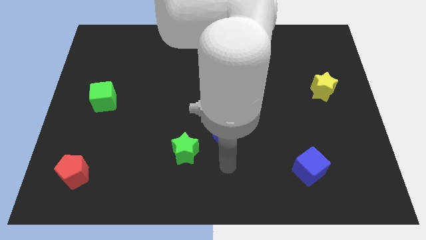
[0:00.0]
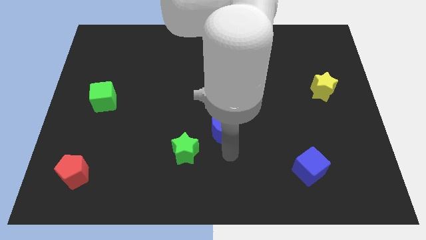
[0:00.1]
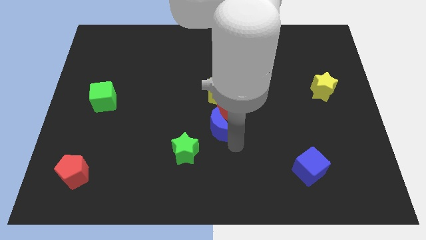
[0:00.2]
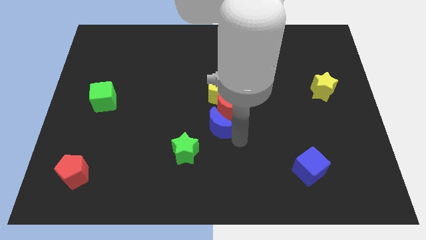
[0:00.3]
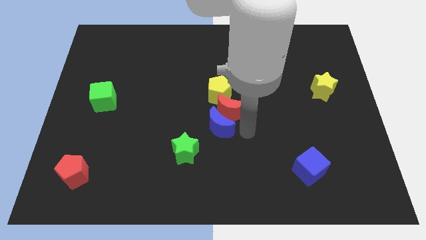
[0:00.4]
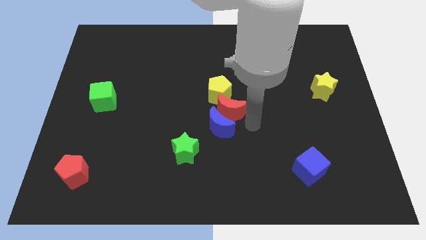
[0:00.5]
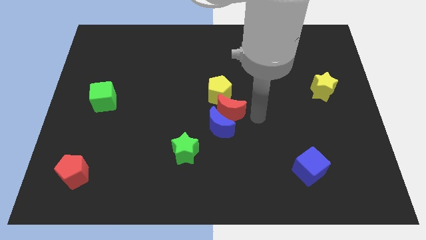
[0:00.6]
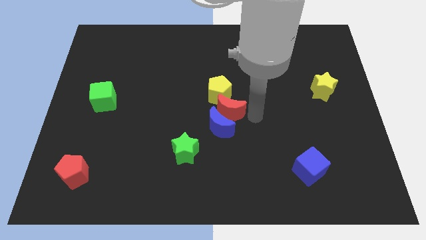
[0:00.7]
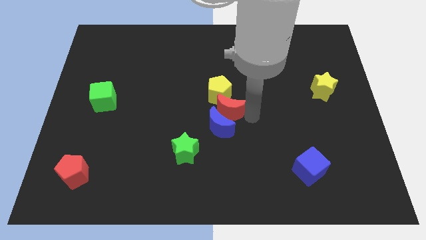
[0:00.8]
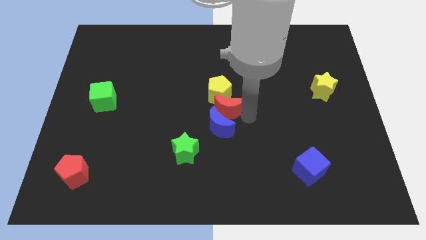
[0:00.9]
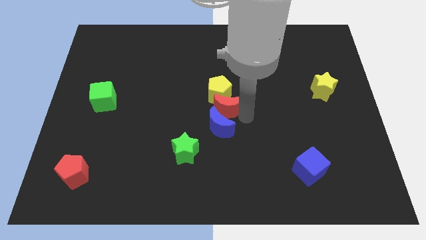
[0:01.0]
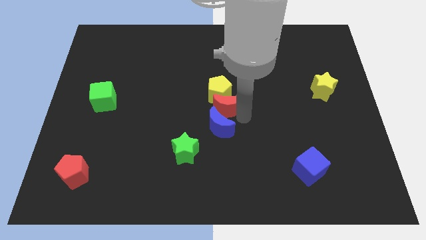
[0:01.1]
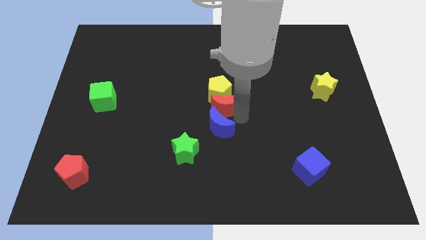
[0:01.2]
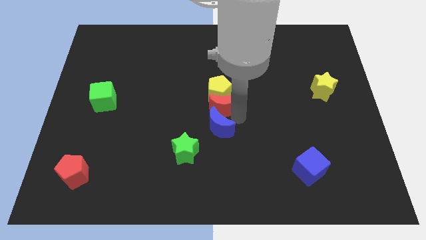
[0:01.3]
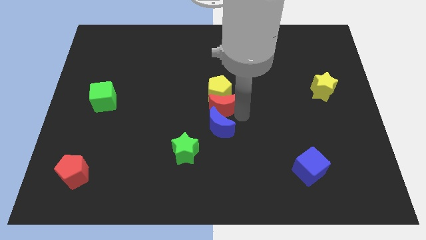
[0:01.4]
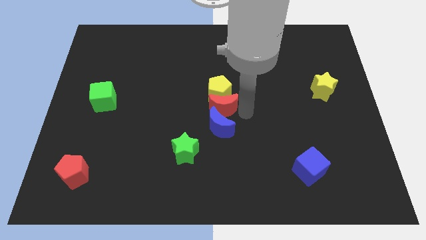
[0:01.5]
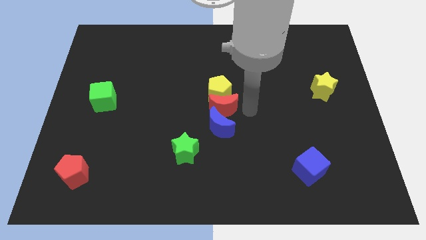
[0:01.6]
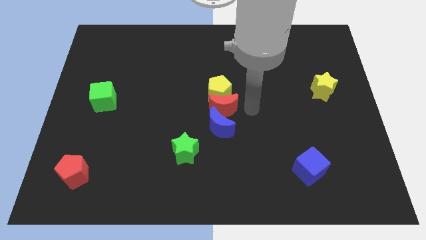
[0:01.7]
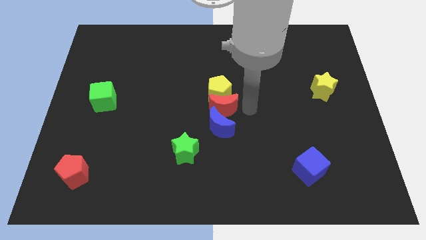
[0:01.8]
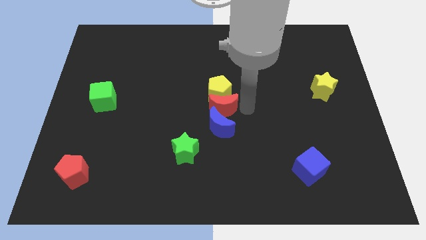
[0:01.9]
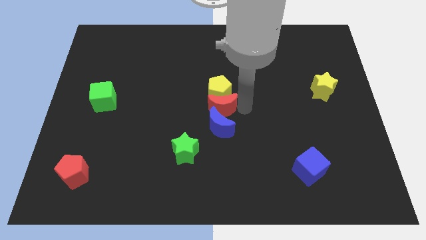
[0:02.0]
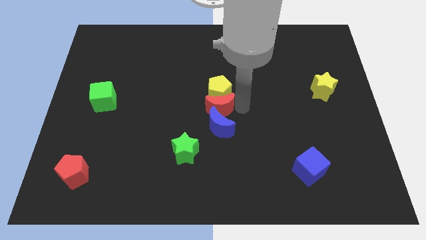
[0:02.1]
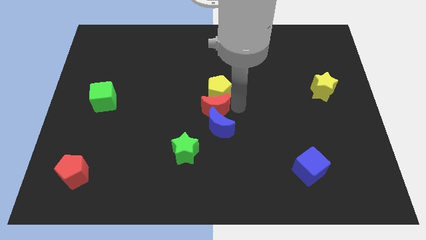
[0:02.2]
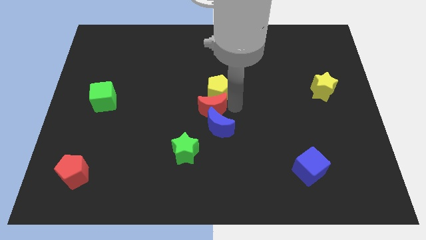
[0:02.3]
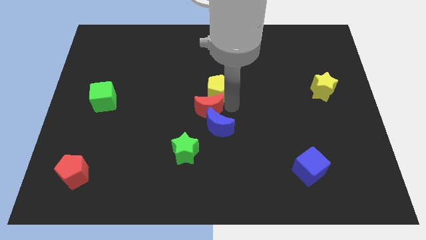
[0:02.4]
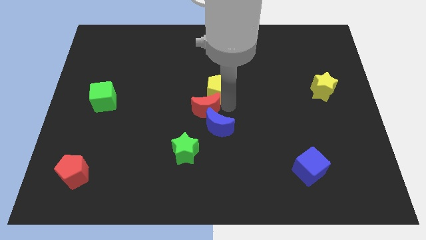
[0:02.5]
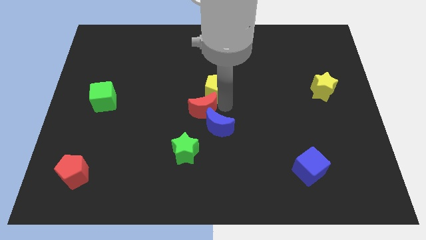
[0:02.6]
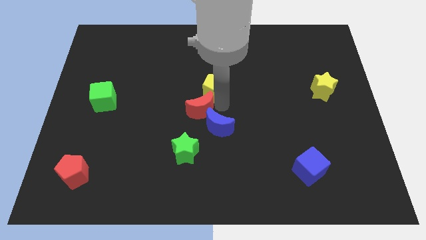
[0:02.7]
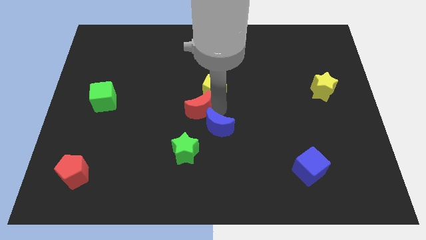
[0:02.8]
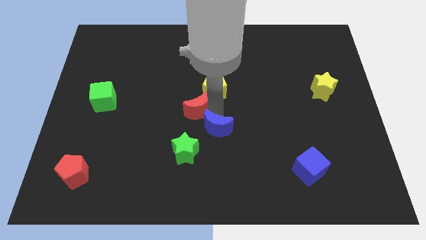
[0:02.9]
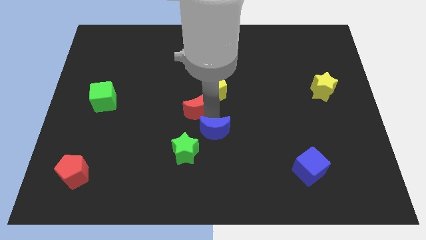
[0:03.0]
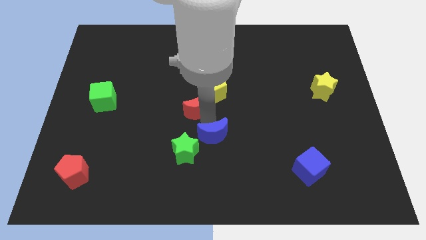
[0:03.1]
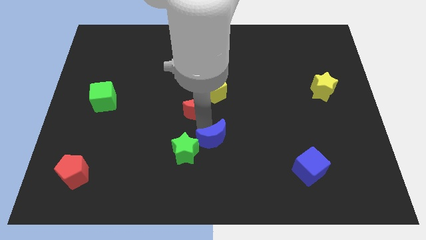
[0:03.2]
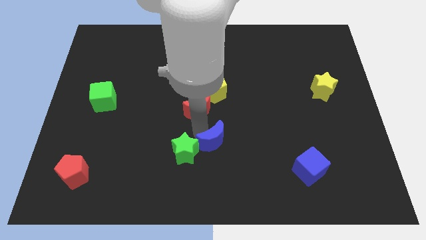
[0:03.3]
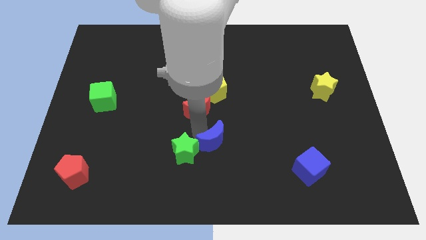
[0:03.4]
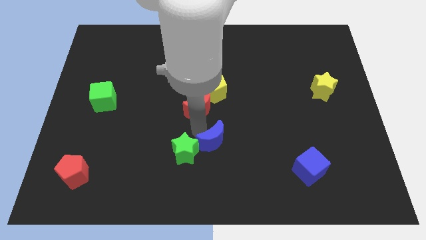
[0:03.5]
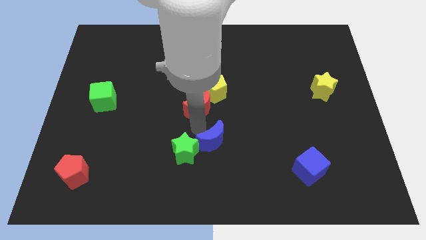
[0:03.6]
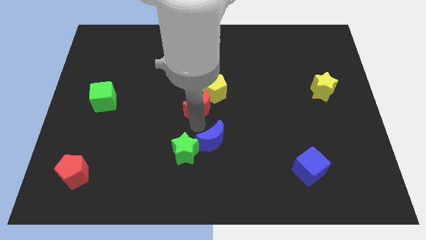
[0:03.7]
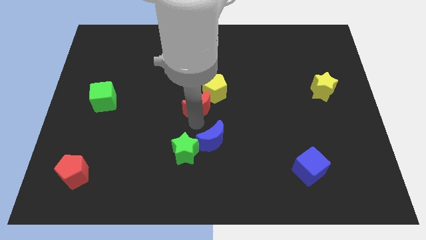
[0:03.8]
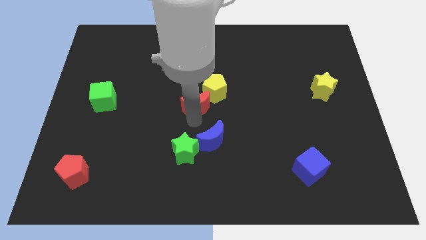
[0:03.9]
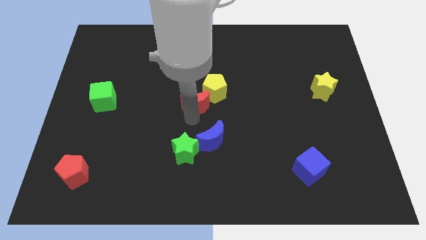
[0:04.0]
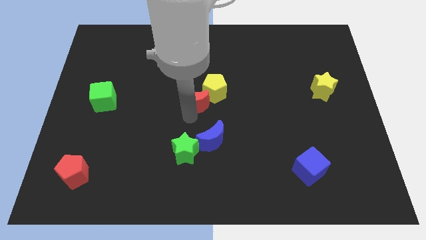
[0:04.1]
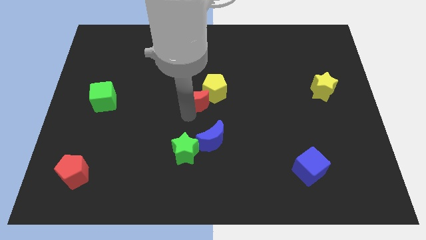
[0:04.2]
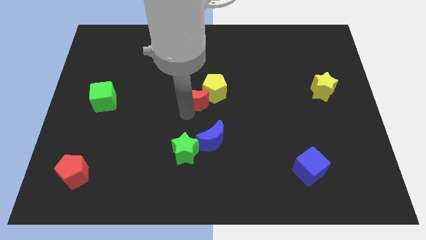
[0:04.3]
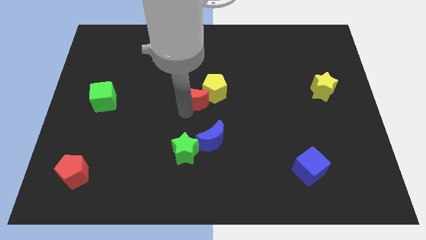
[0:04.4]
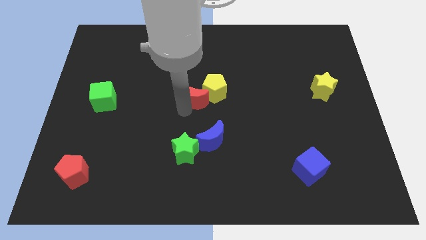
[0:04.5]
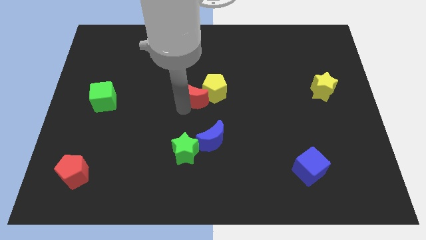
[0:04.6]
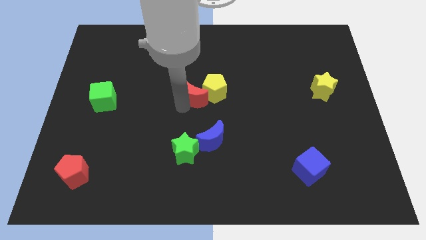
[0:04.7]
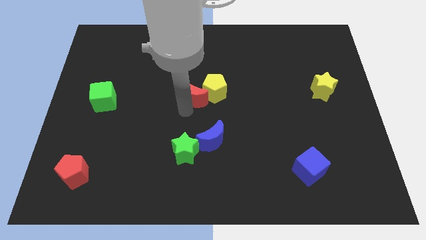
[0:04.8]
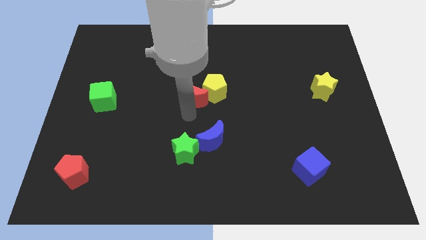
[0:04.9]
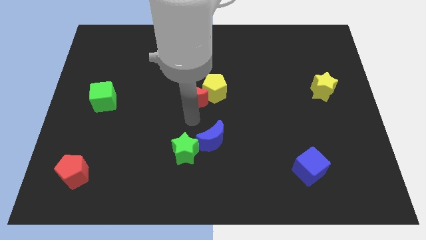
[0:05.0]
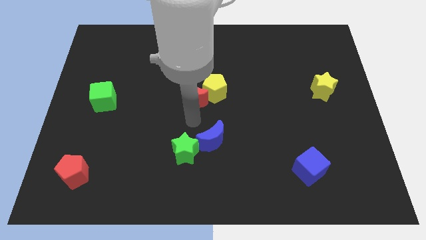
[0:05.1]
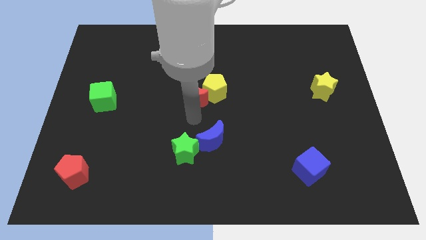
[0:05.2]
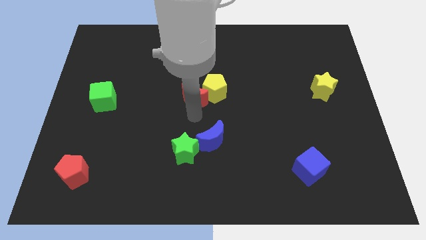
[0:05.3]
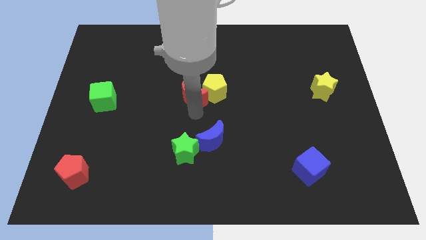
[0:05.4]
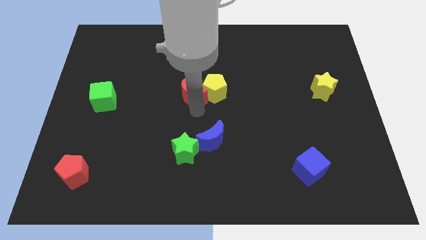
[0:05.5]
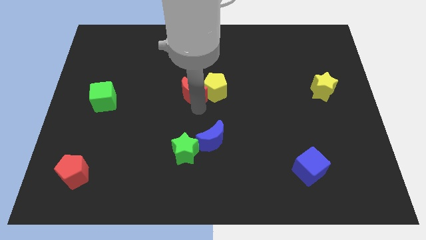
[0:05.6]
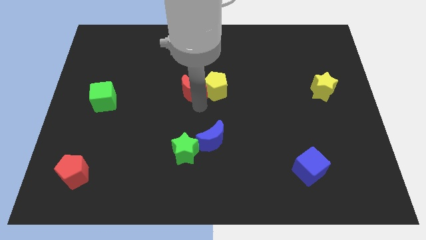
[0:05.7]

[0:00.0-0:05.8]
move the red moon to the top left side of the yellow pentagon

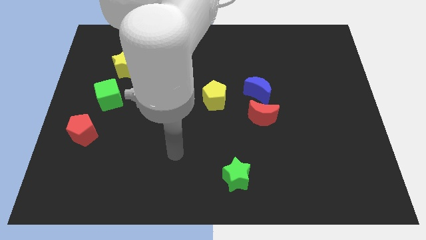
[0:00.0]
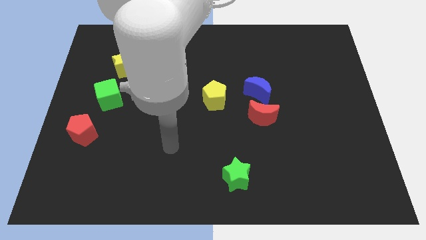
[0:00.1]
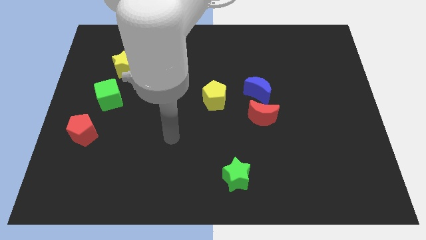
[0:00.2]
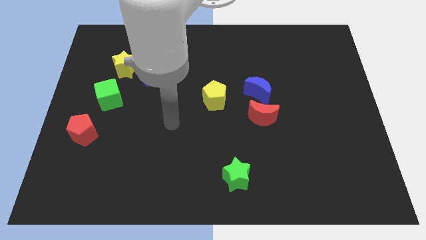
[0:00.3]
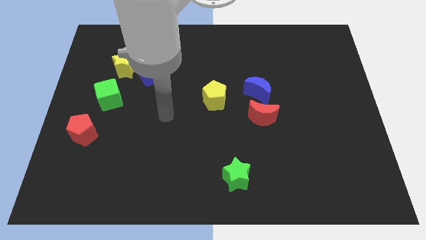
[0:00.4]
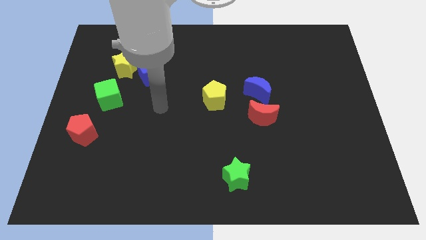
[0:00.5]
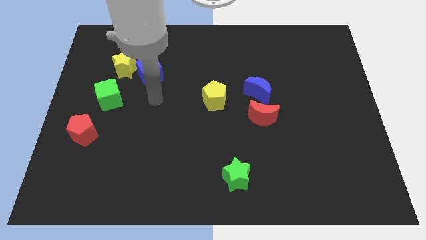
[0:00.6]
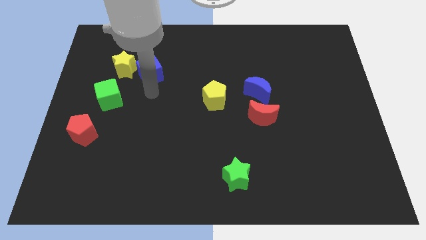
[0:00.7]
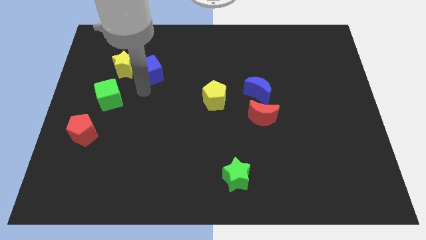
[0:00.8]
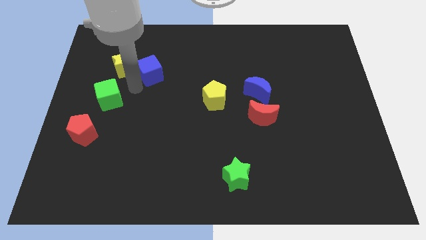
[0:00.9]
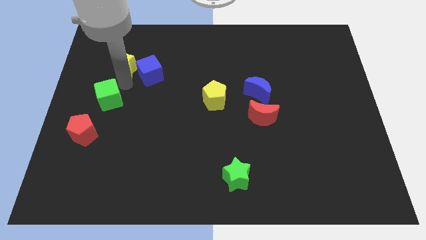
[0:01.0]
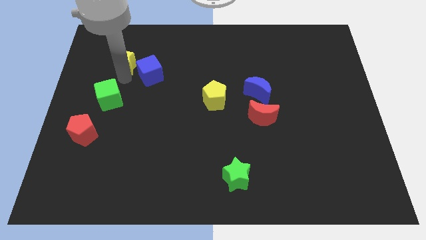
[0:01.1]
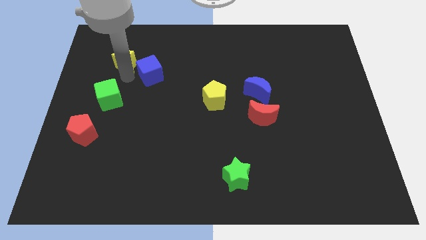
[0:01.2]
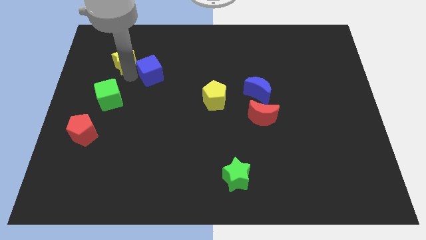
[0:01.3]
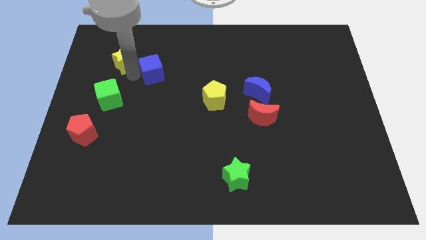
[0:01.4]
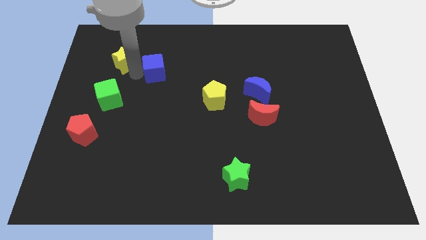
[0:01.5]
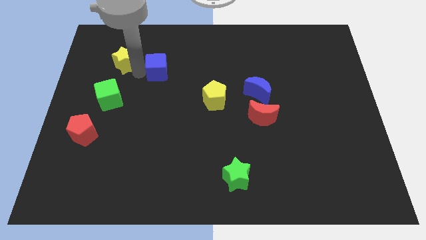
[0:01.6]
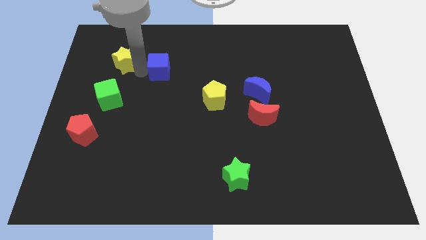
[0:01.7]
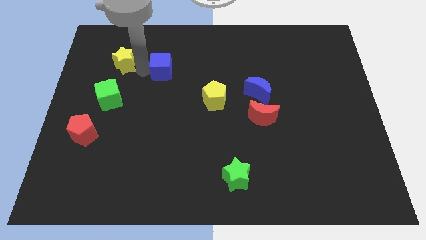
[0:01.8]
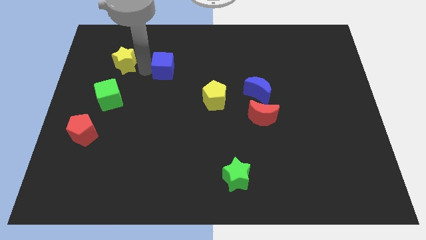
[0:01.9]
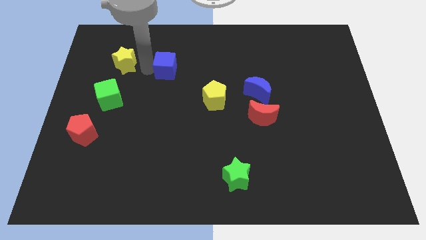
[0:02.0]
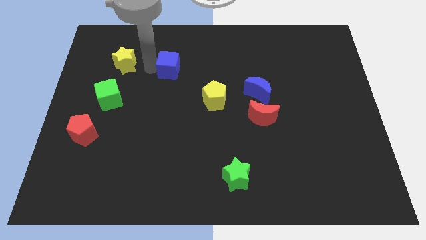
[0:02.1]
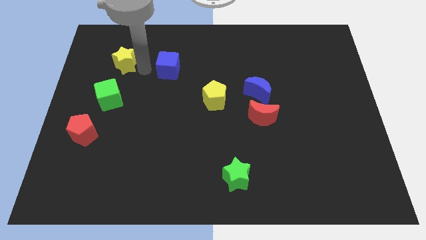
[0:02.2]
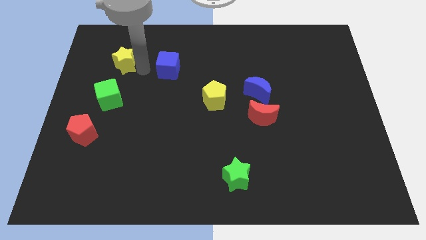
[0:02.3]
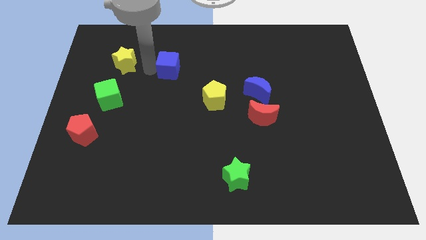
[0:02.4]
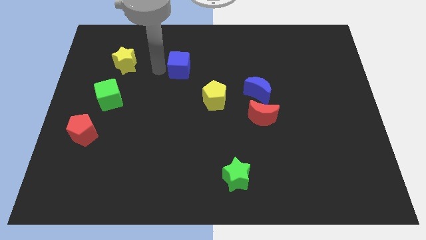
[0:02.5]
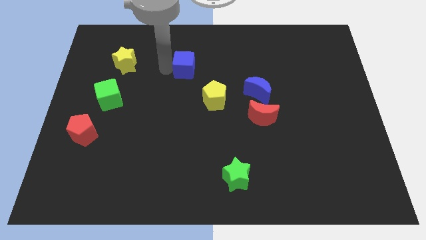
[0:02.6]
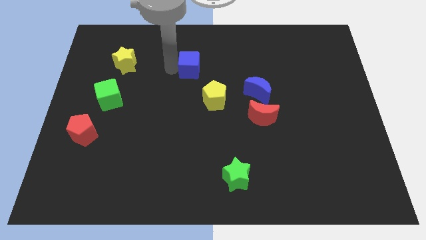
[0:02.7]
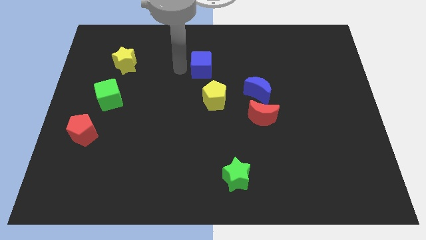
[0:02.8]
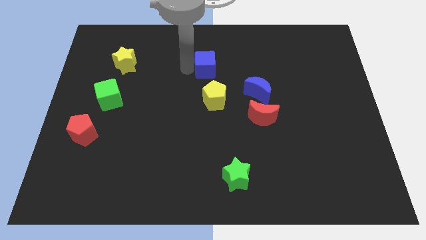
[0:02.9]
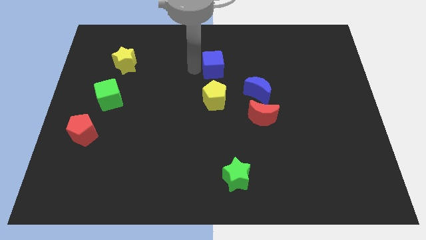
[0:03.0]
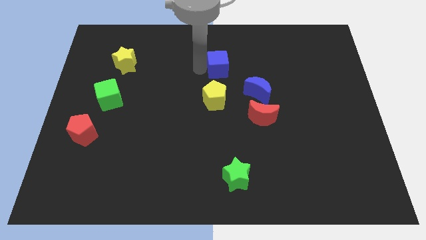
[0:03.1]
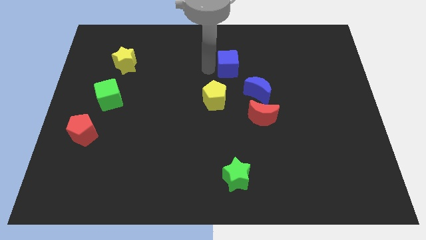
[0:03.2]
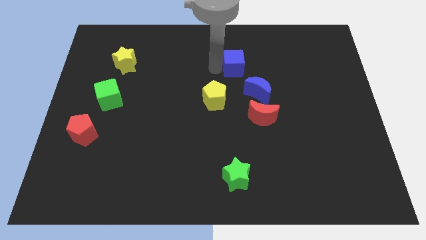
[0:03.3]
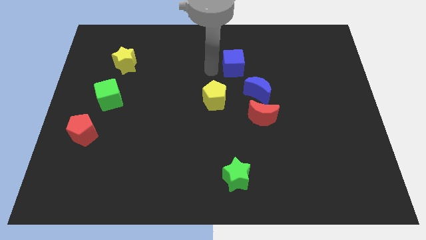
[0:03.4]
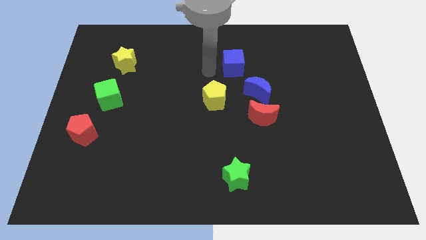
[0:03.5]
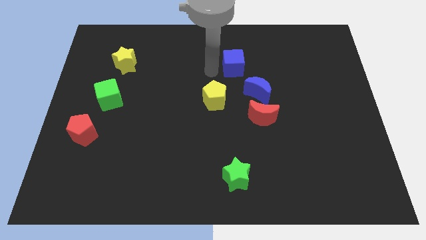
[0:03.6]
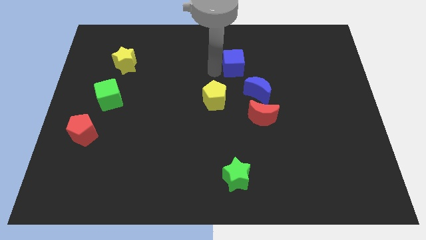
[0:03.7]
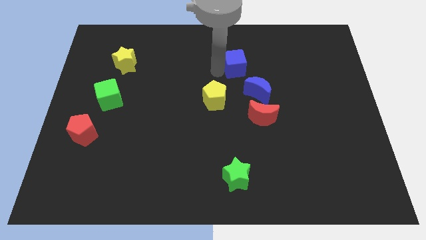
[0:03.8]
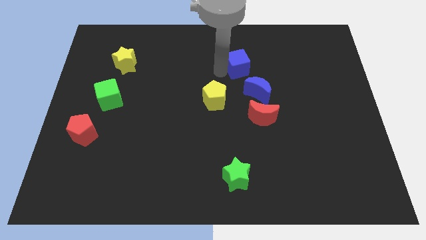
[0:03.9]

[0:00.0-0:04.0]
put the blue cube to the top side of the blue moon
